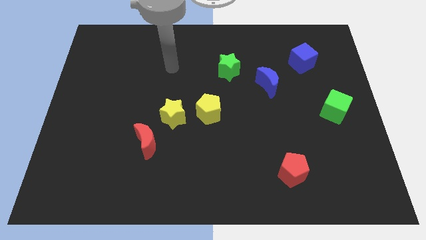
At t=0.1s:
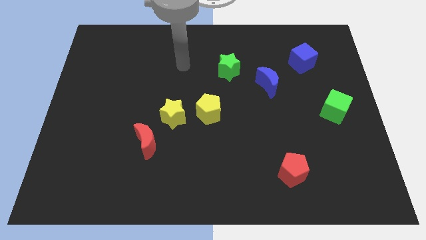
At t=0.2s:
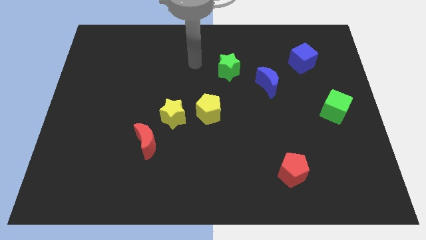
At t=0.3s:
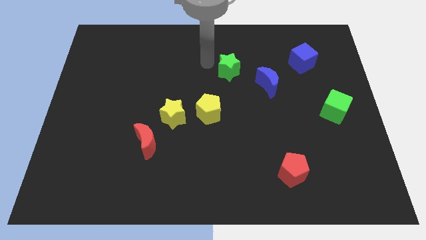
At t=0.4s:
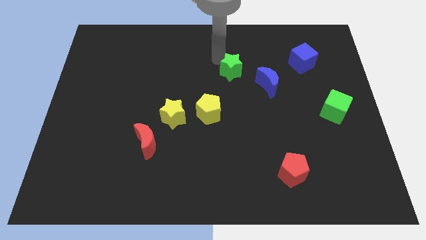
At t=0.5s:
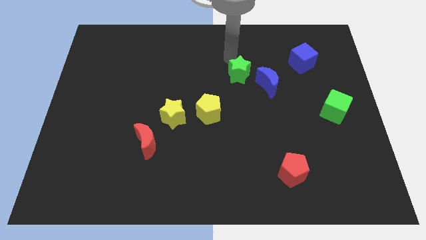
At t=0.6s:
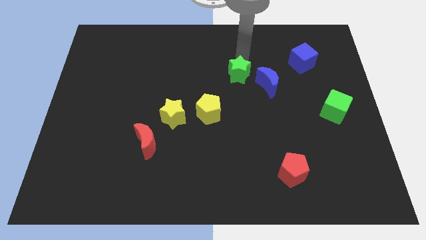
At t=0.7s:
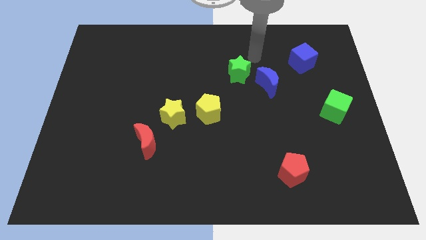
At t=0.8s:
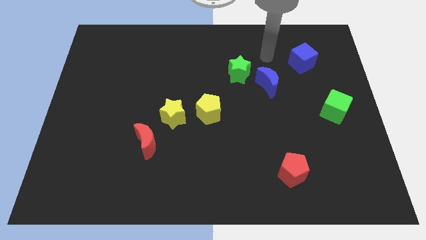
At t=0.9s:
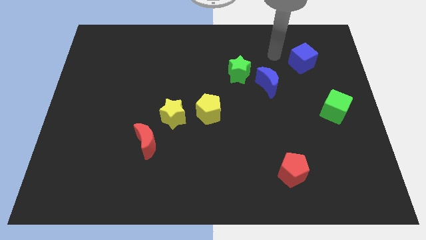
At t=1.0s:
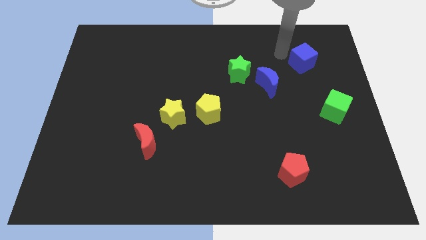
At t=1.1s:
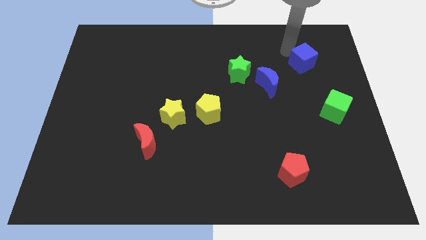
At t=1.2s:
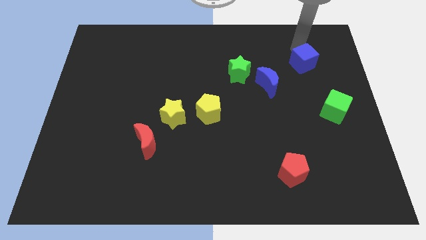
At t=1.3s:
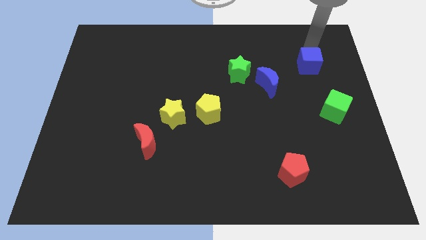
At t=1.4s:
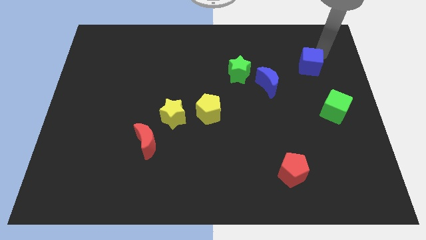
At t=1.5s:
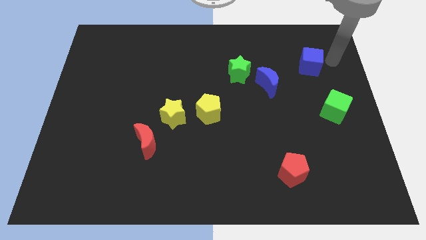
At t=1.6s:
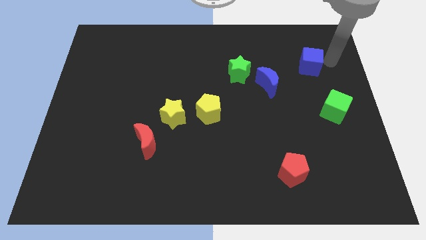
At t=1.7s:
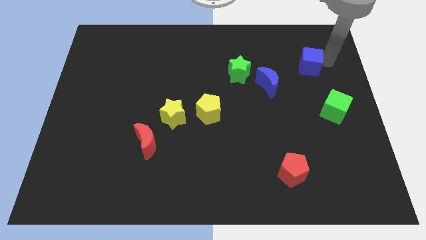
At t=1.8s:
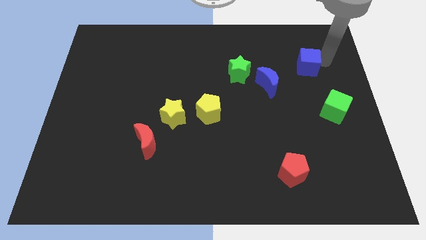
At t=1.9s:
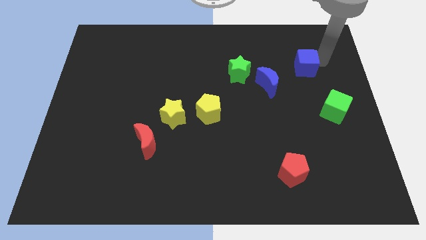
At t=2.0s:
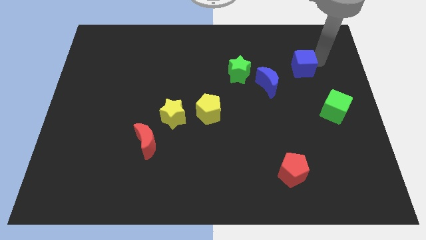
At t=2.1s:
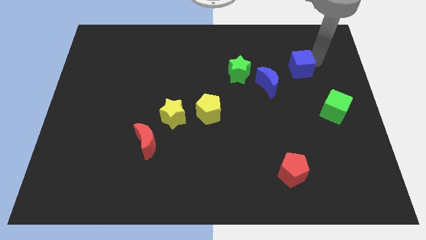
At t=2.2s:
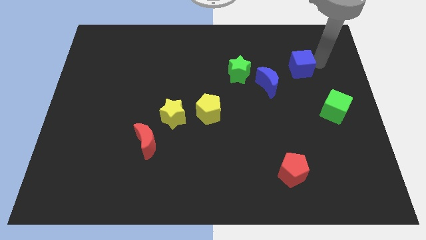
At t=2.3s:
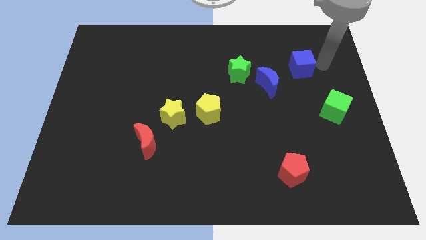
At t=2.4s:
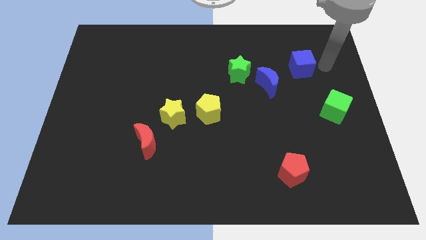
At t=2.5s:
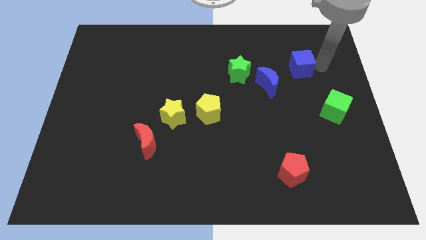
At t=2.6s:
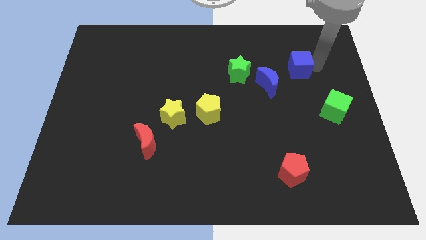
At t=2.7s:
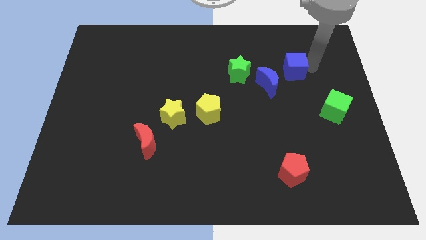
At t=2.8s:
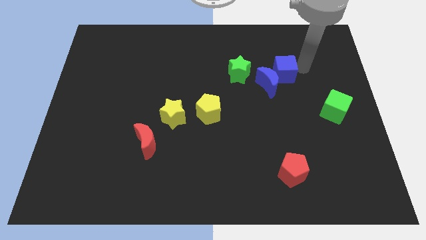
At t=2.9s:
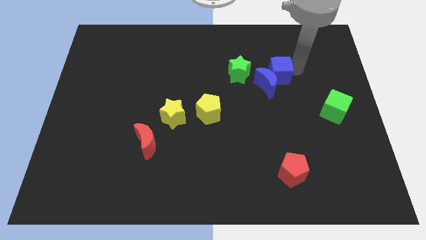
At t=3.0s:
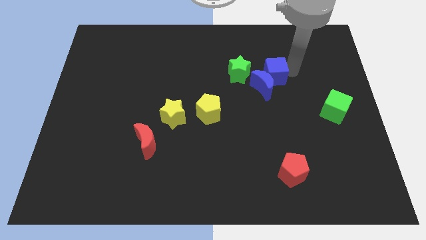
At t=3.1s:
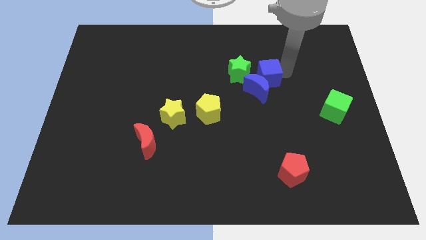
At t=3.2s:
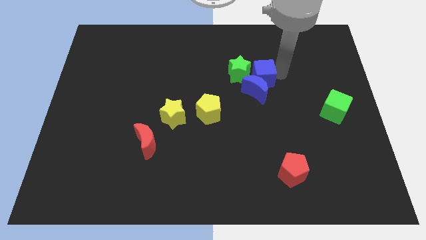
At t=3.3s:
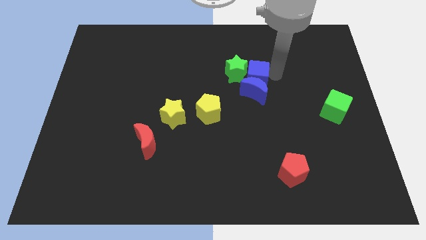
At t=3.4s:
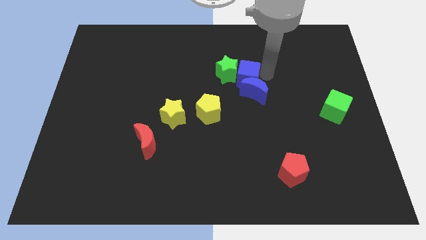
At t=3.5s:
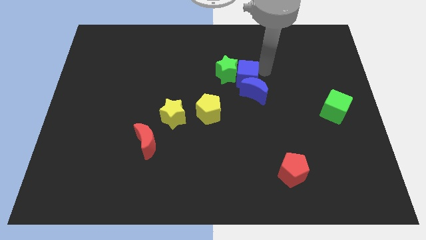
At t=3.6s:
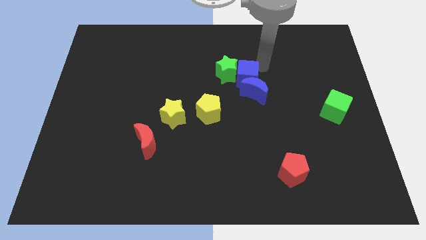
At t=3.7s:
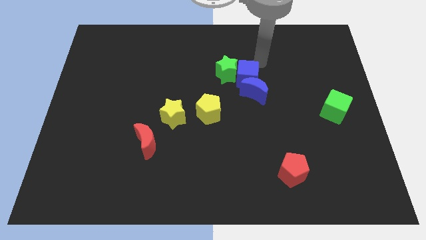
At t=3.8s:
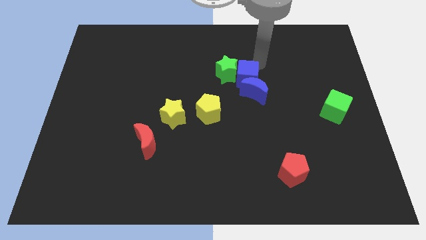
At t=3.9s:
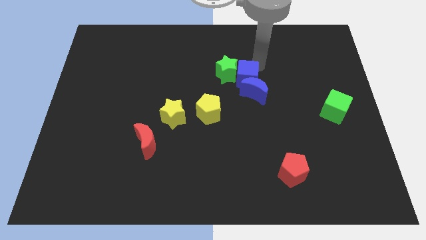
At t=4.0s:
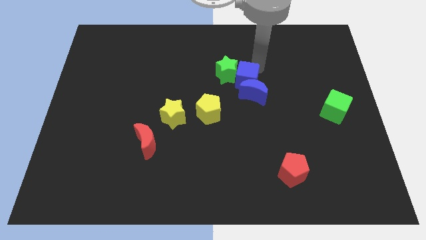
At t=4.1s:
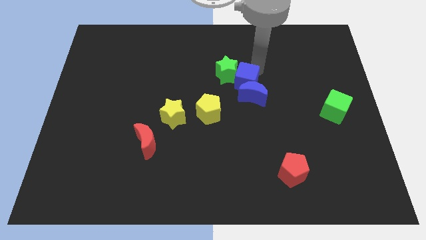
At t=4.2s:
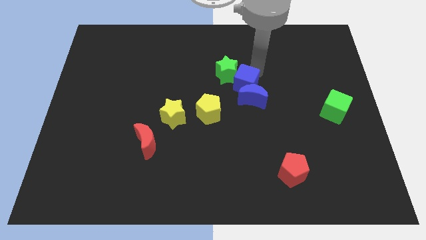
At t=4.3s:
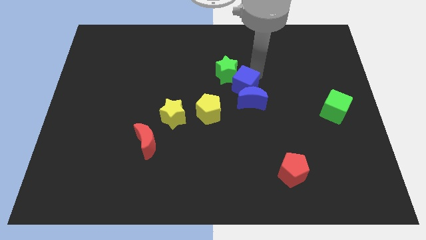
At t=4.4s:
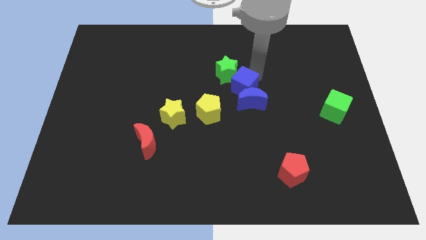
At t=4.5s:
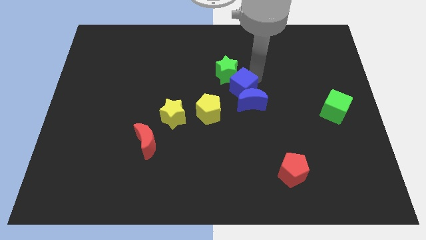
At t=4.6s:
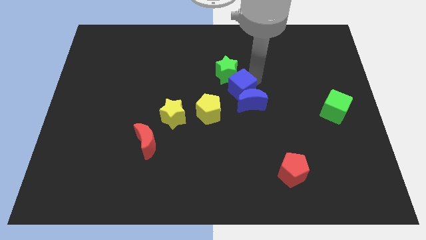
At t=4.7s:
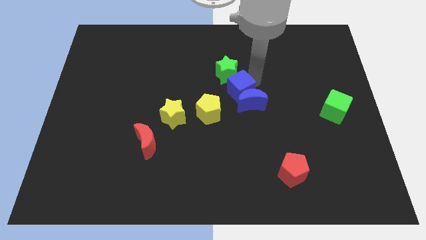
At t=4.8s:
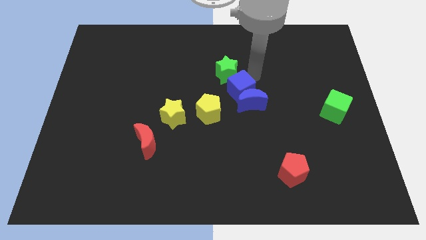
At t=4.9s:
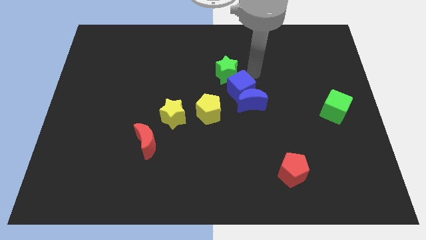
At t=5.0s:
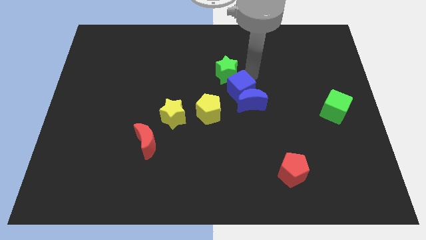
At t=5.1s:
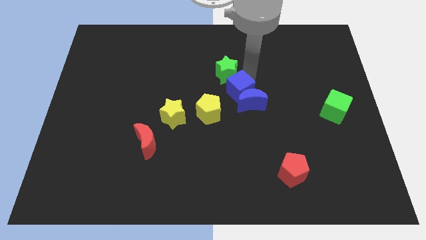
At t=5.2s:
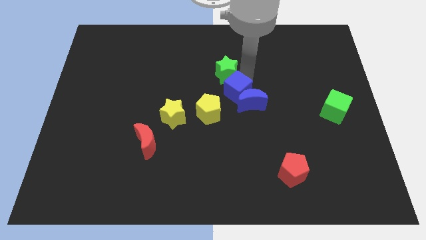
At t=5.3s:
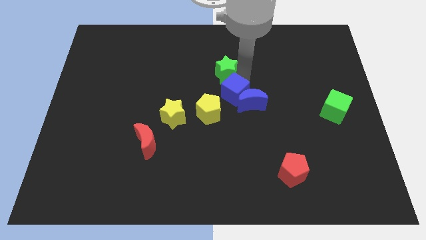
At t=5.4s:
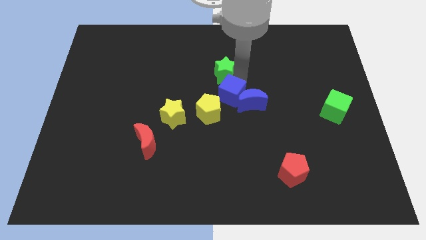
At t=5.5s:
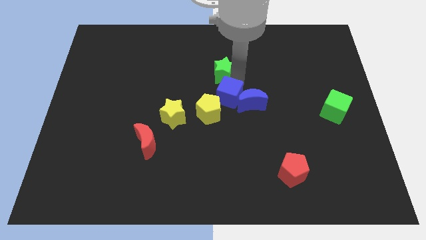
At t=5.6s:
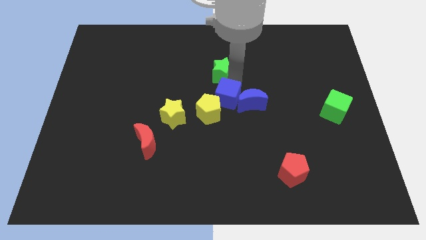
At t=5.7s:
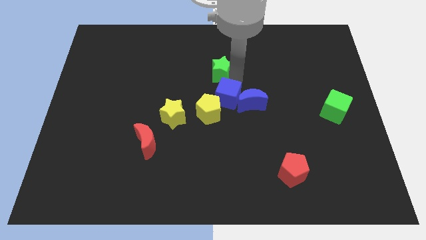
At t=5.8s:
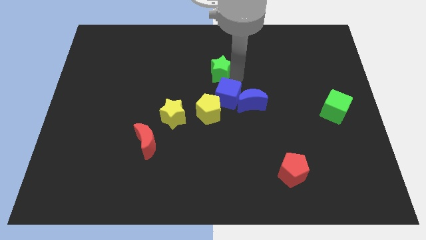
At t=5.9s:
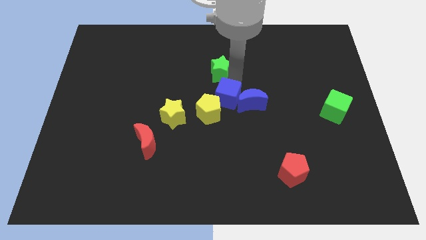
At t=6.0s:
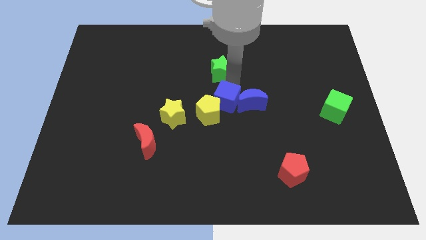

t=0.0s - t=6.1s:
put the blue cube just right of the yellow star

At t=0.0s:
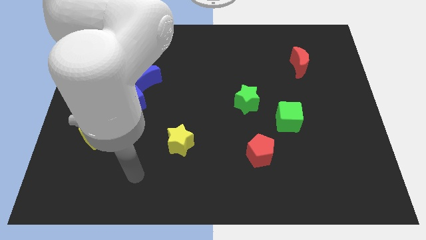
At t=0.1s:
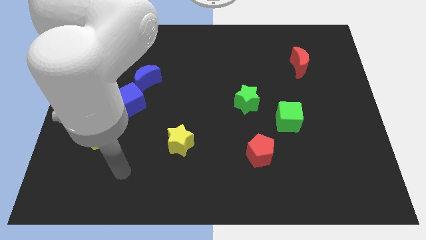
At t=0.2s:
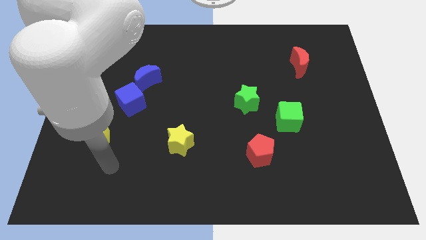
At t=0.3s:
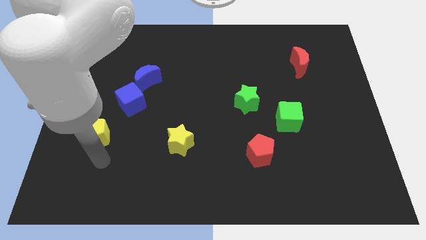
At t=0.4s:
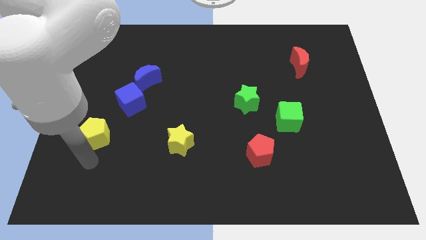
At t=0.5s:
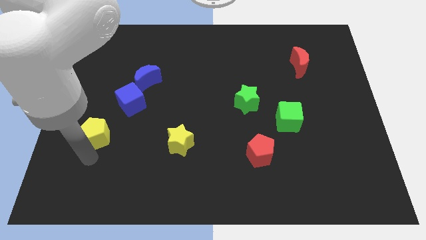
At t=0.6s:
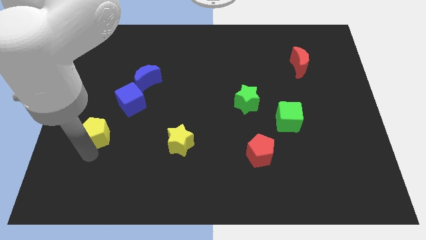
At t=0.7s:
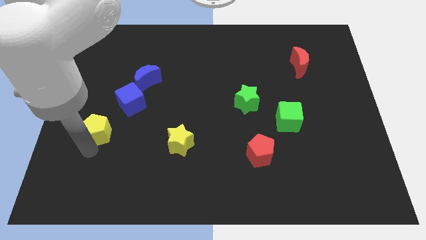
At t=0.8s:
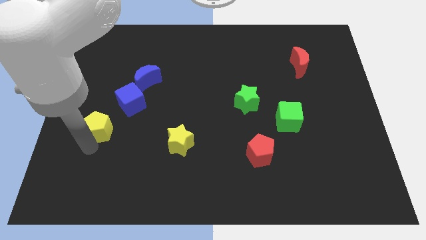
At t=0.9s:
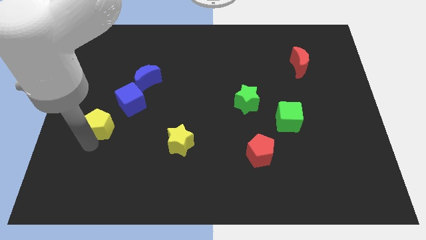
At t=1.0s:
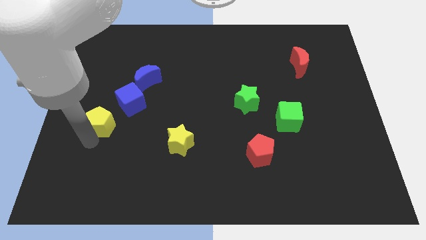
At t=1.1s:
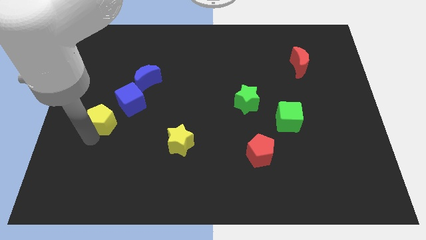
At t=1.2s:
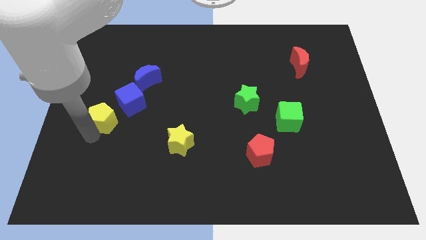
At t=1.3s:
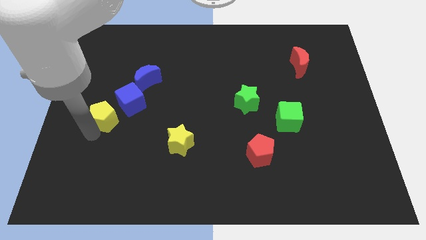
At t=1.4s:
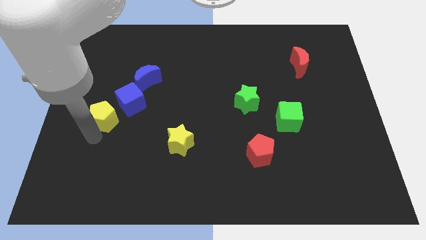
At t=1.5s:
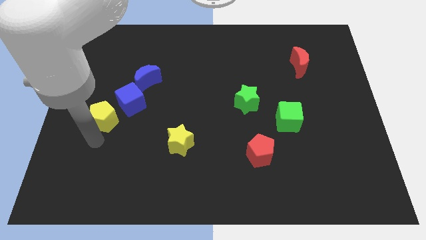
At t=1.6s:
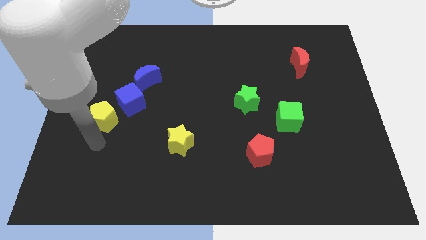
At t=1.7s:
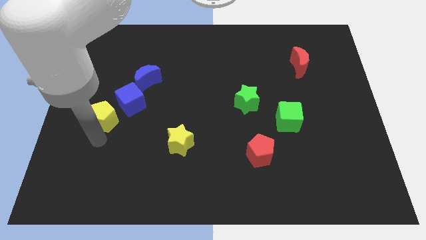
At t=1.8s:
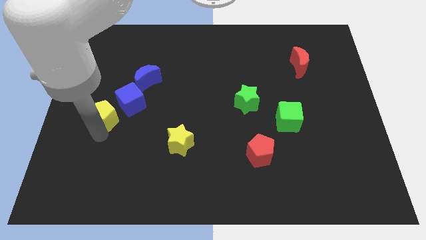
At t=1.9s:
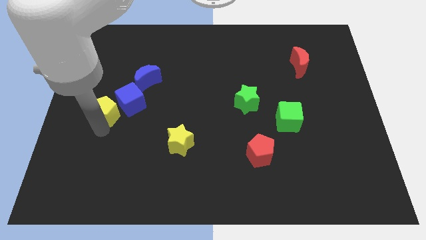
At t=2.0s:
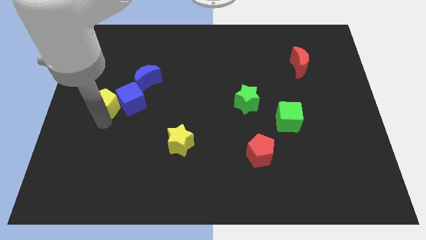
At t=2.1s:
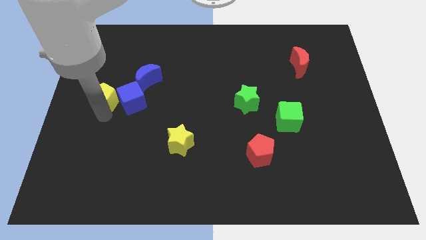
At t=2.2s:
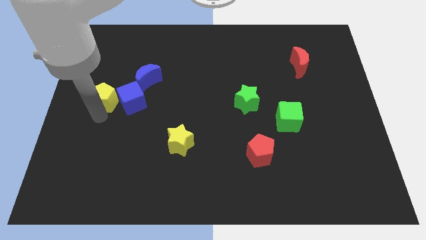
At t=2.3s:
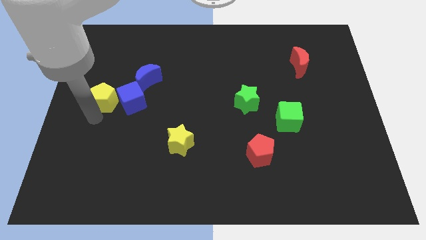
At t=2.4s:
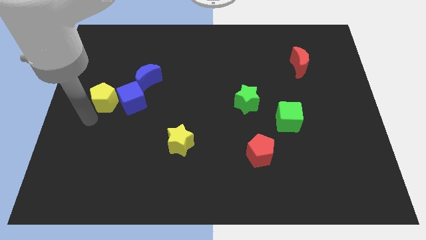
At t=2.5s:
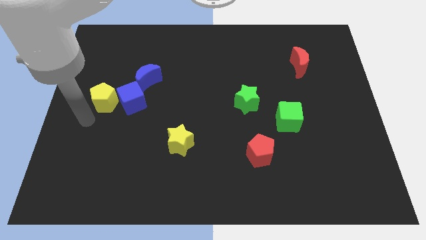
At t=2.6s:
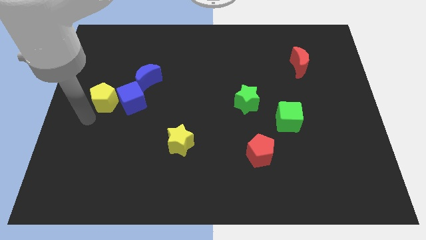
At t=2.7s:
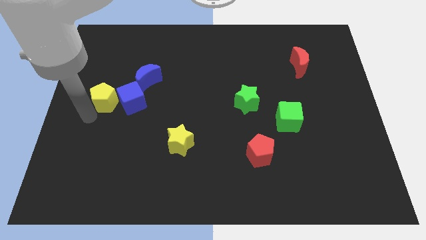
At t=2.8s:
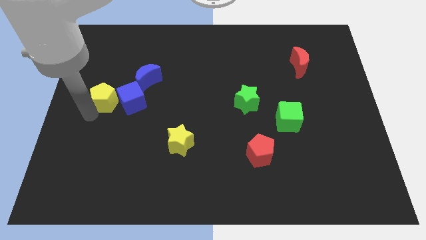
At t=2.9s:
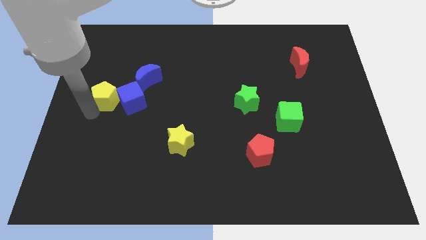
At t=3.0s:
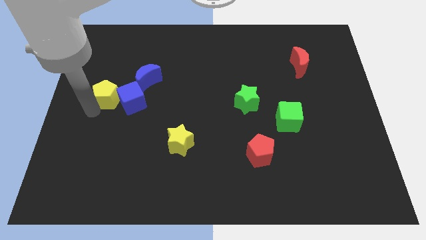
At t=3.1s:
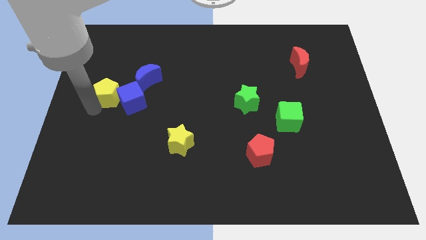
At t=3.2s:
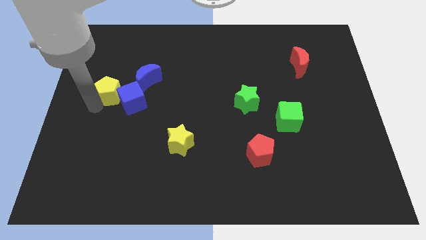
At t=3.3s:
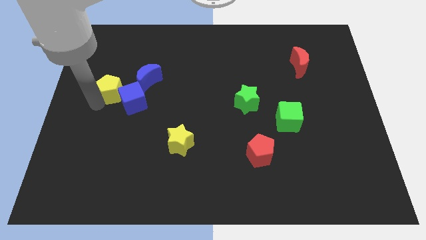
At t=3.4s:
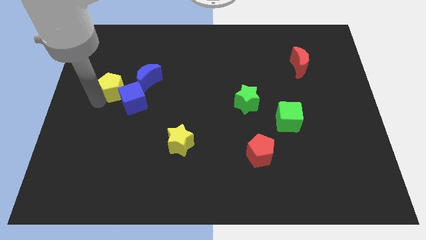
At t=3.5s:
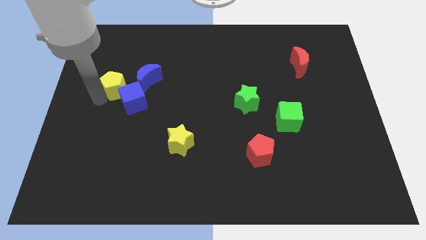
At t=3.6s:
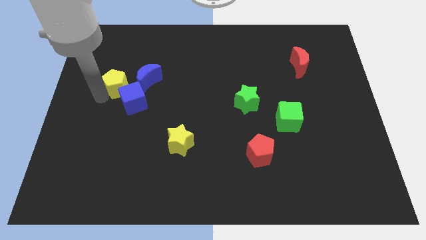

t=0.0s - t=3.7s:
push the yellow pentagon above the blue cube
